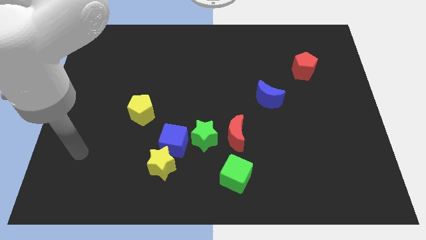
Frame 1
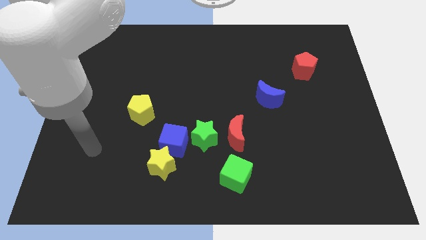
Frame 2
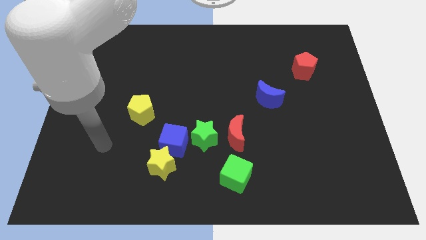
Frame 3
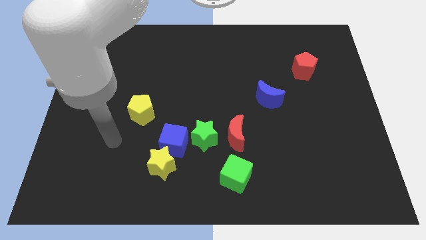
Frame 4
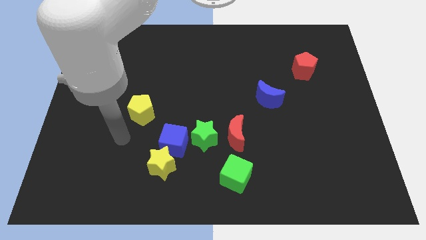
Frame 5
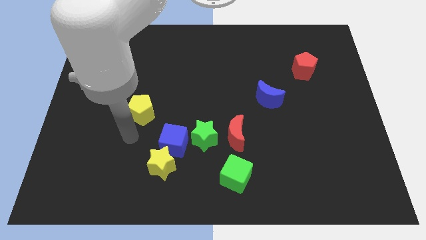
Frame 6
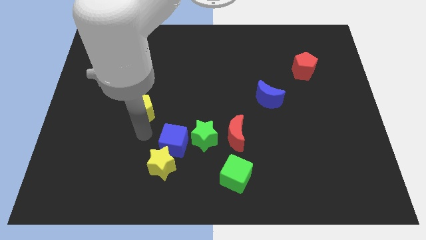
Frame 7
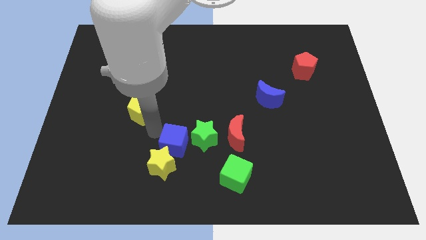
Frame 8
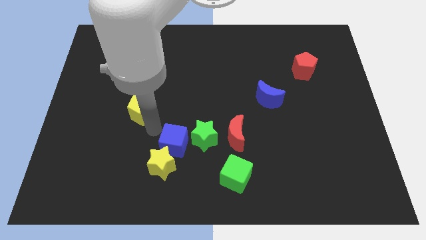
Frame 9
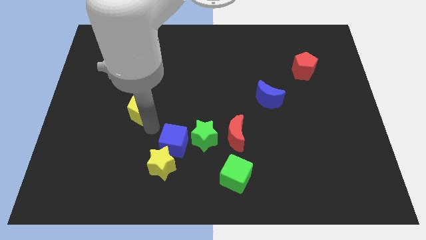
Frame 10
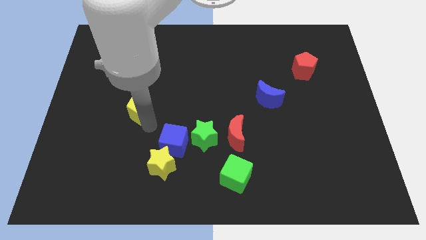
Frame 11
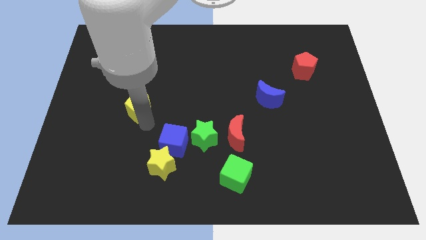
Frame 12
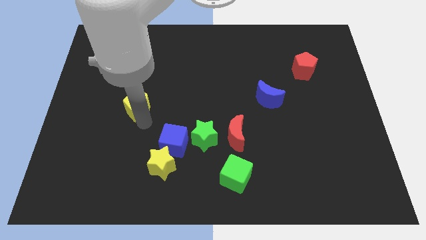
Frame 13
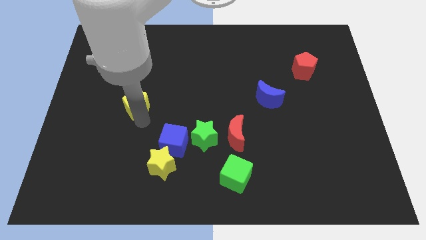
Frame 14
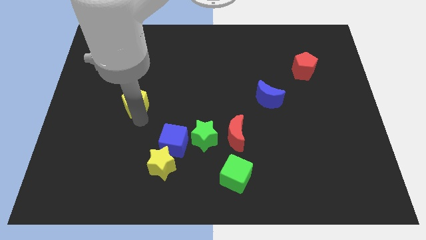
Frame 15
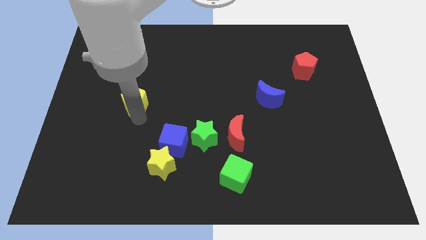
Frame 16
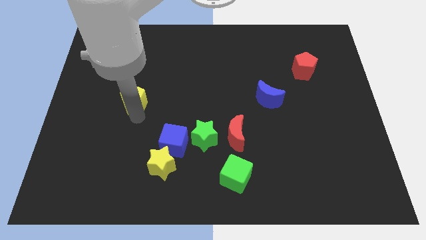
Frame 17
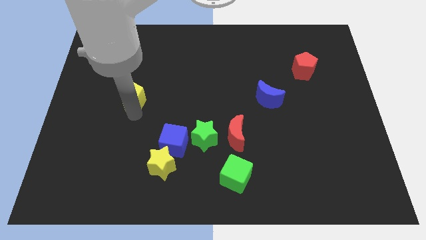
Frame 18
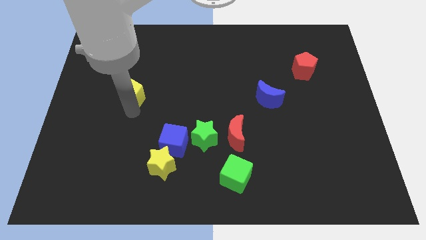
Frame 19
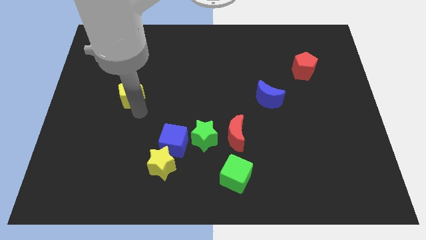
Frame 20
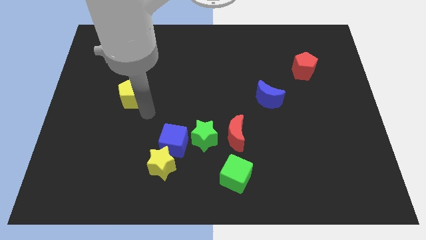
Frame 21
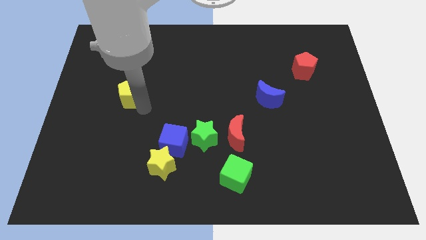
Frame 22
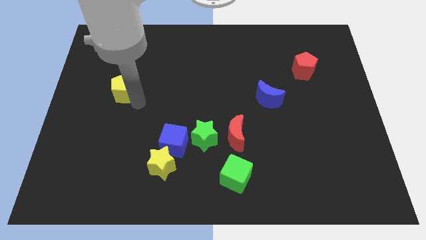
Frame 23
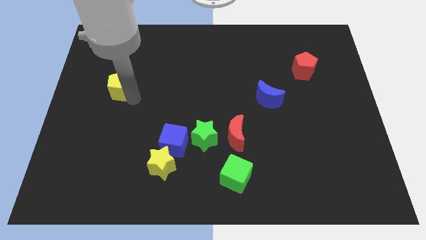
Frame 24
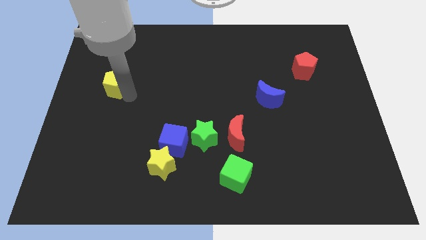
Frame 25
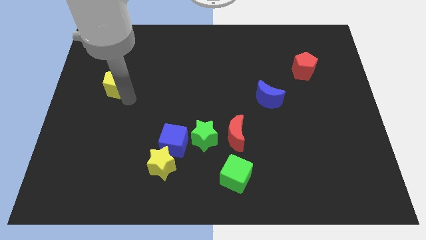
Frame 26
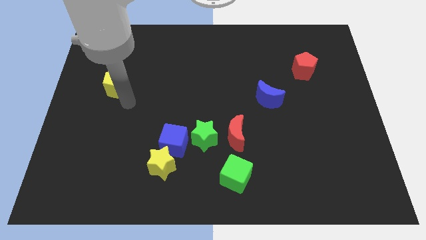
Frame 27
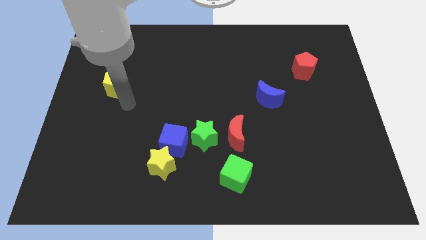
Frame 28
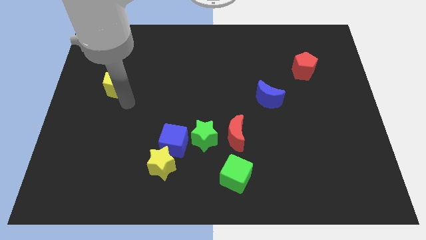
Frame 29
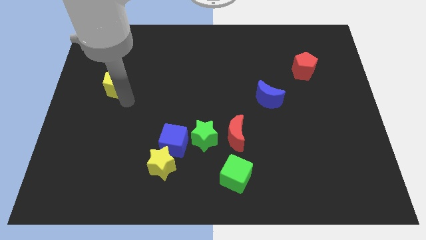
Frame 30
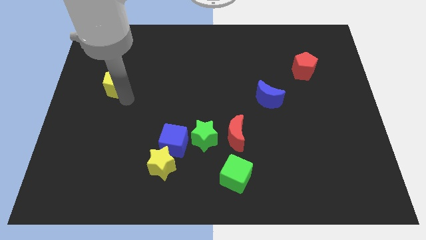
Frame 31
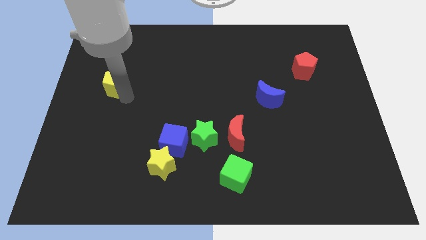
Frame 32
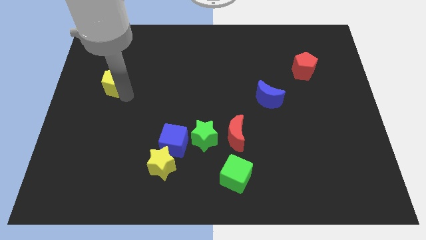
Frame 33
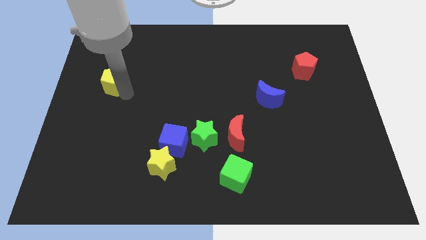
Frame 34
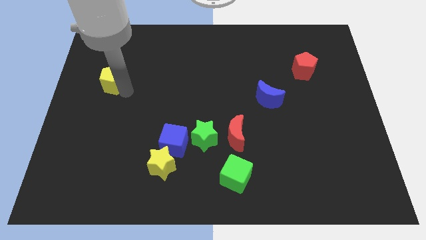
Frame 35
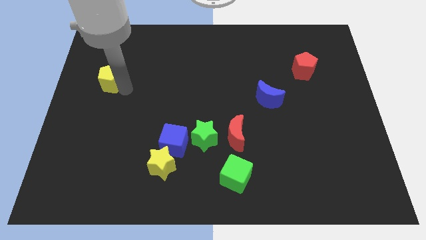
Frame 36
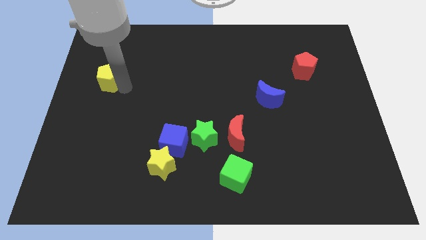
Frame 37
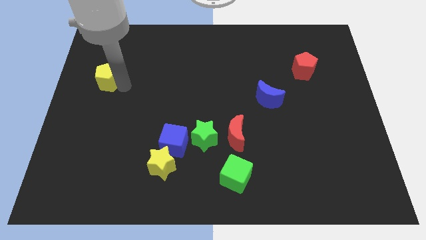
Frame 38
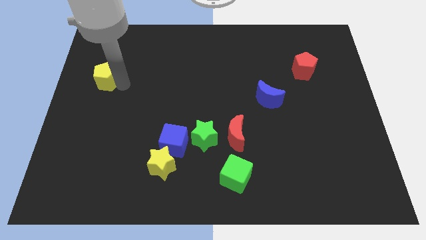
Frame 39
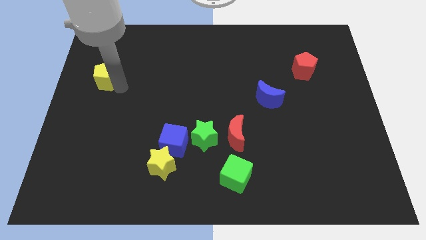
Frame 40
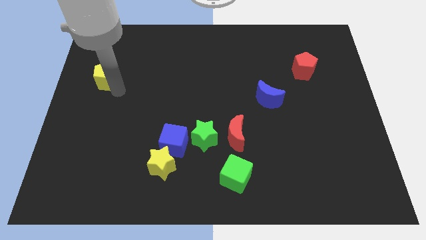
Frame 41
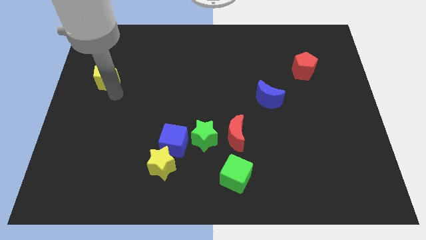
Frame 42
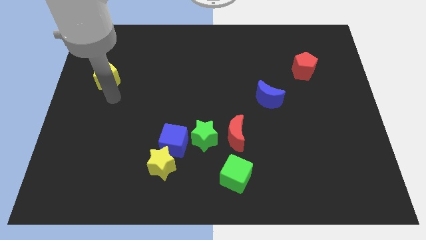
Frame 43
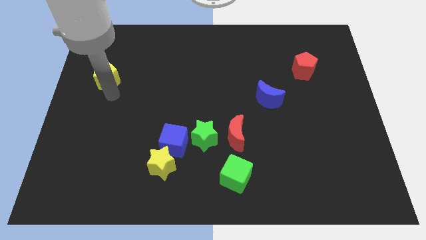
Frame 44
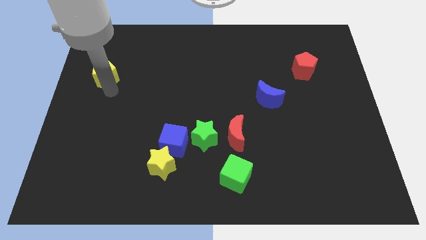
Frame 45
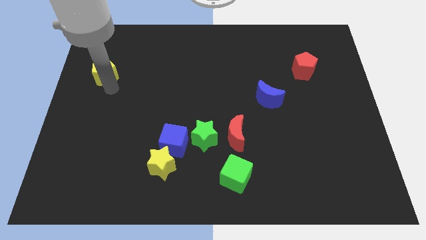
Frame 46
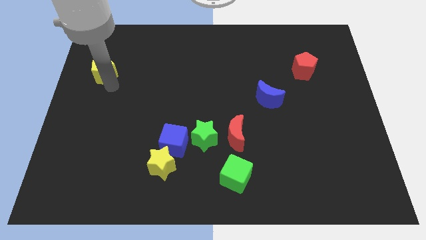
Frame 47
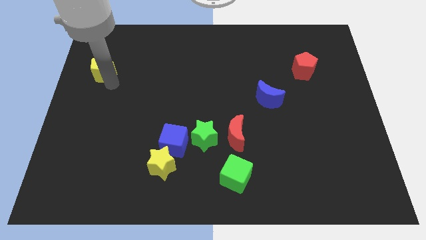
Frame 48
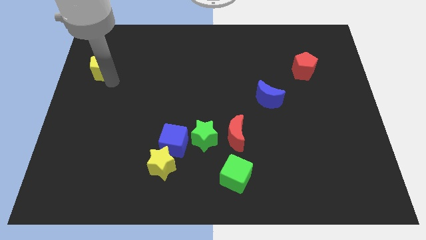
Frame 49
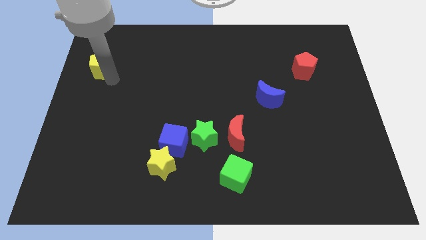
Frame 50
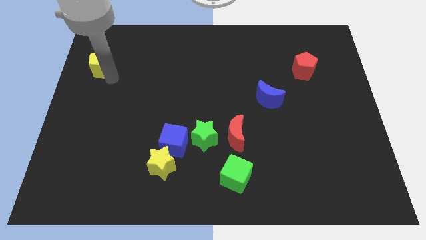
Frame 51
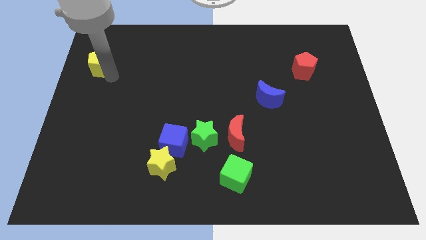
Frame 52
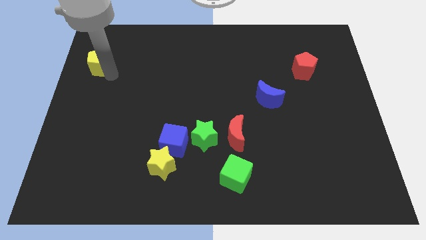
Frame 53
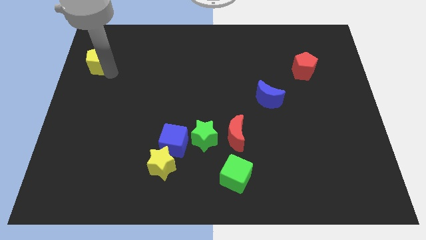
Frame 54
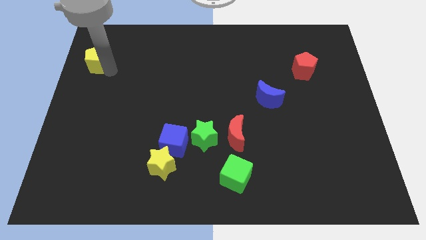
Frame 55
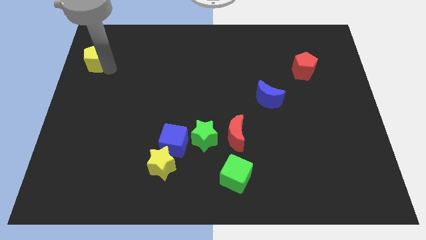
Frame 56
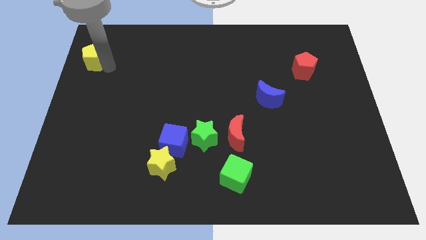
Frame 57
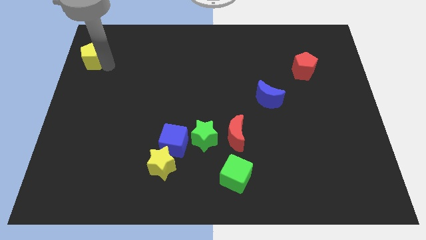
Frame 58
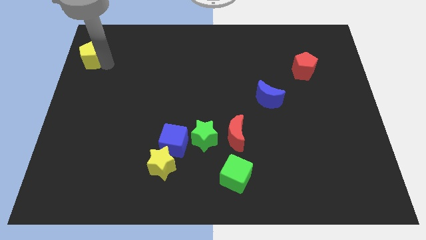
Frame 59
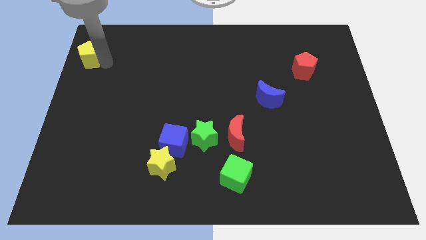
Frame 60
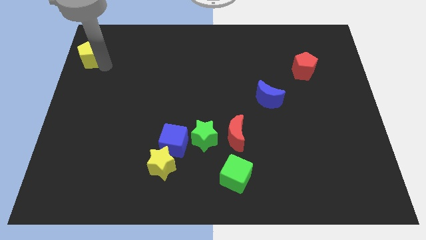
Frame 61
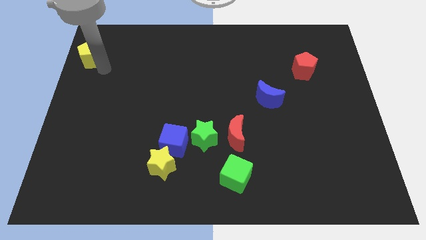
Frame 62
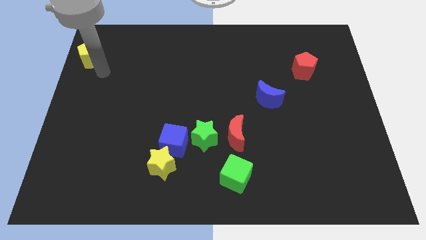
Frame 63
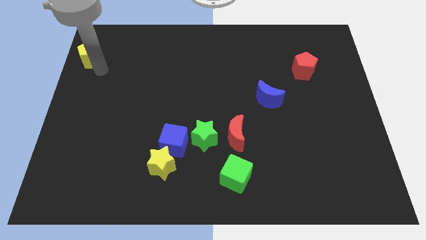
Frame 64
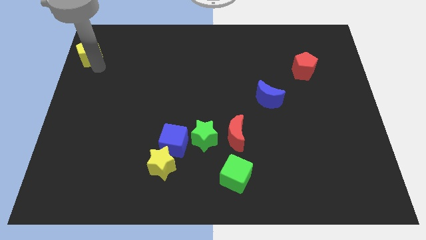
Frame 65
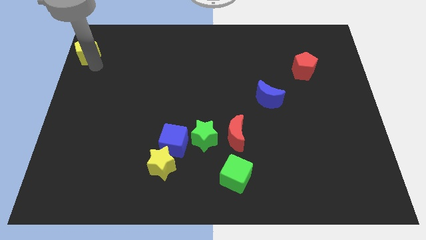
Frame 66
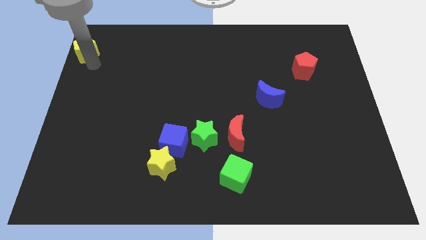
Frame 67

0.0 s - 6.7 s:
put the yellow pentagon to the top left
